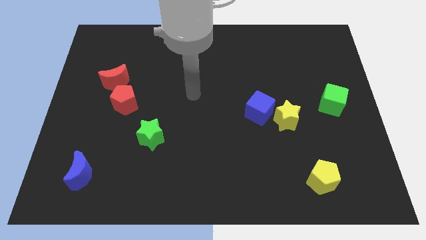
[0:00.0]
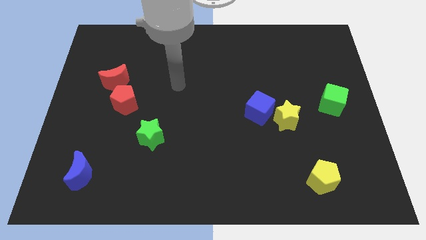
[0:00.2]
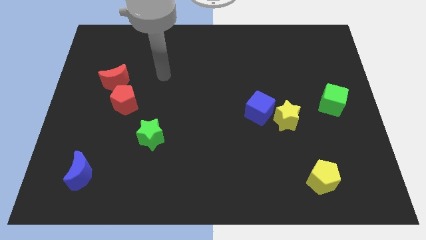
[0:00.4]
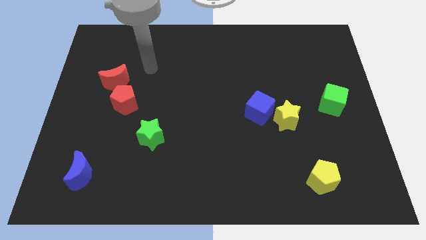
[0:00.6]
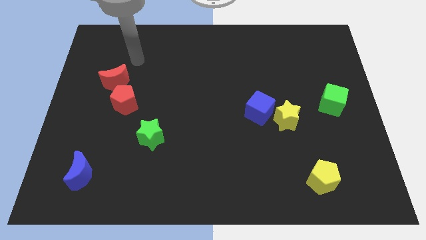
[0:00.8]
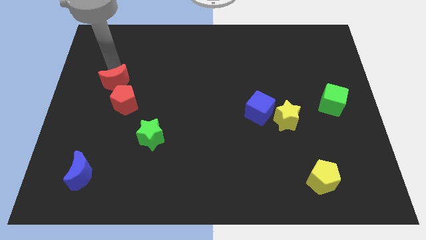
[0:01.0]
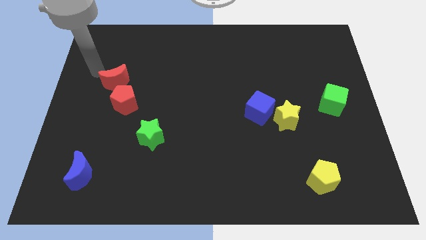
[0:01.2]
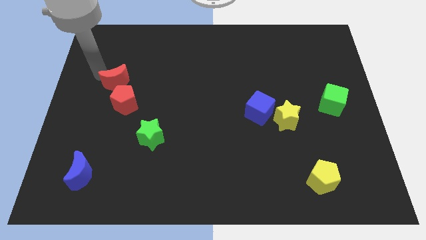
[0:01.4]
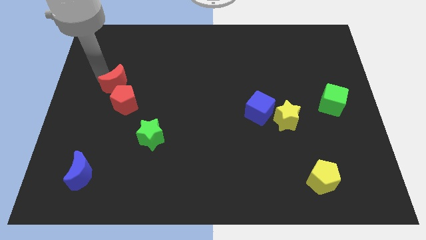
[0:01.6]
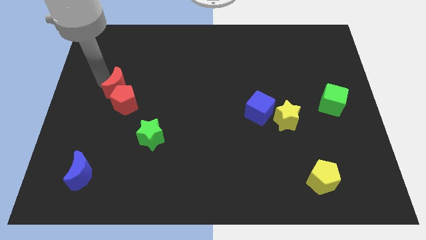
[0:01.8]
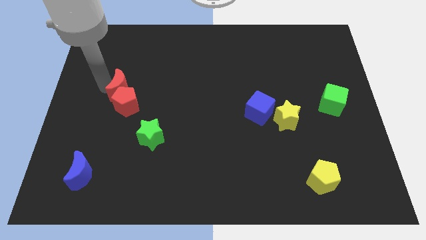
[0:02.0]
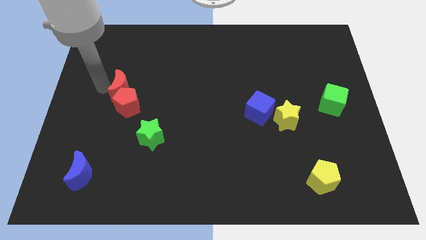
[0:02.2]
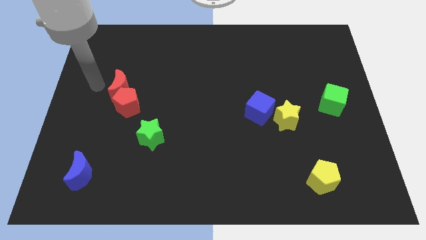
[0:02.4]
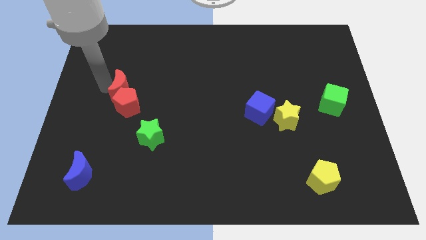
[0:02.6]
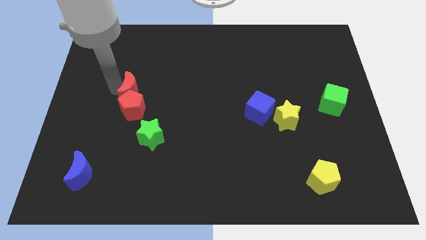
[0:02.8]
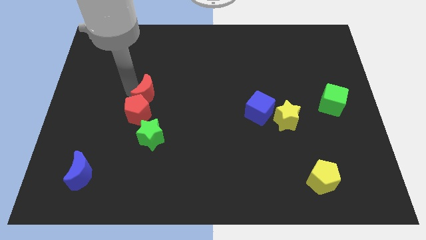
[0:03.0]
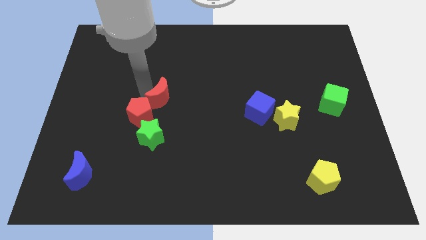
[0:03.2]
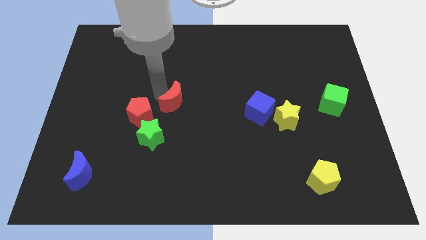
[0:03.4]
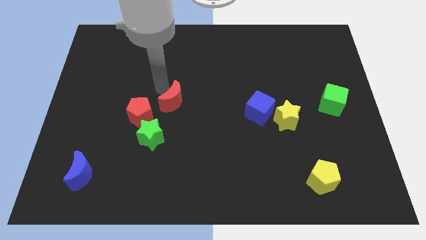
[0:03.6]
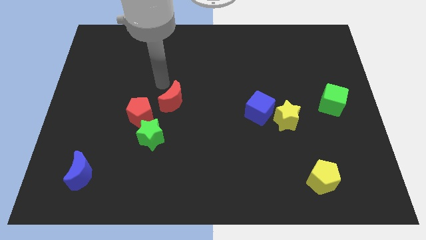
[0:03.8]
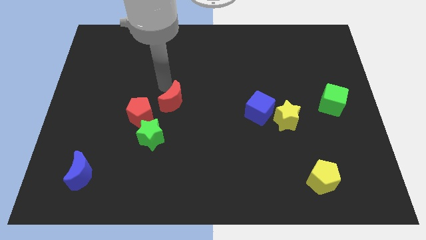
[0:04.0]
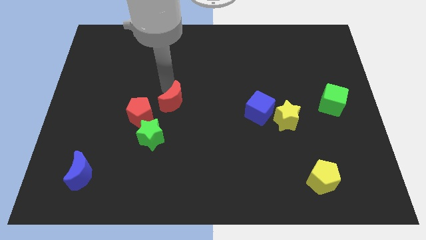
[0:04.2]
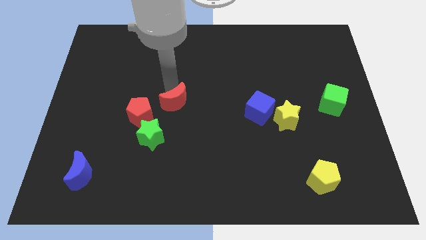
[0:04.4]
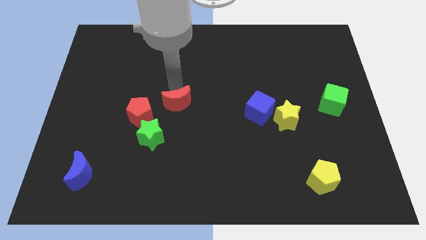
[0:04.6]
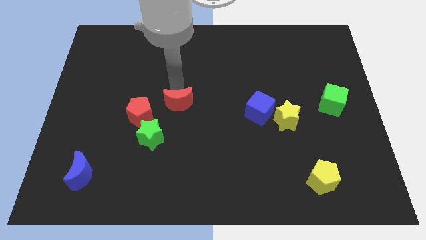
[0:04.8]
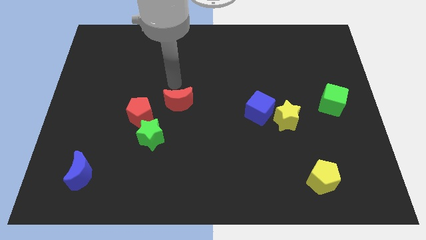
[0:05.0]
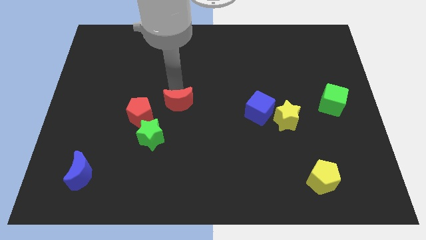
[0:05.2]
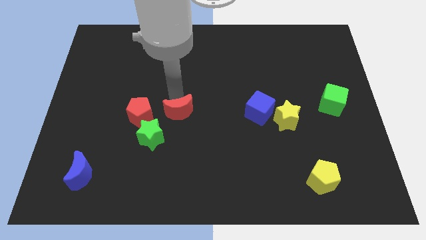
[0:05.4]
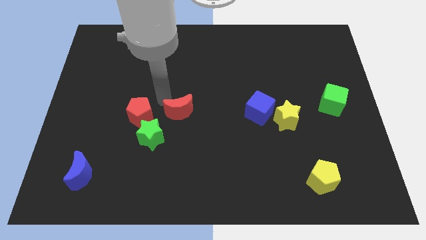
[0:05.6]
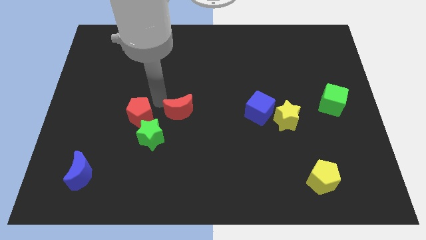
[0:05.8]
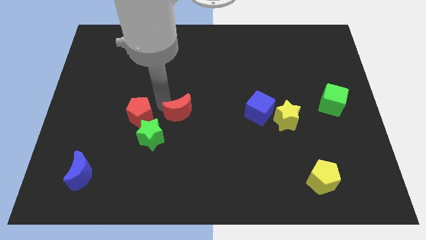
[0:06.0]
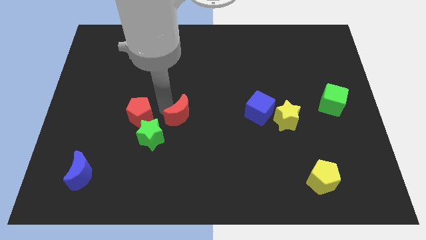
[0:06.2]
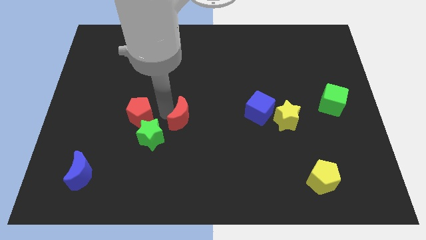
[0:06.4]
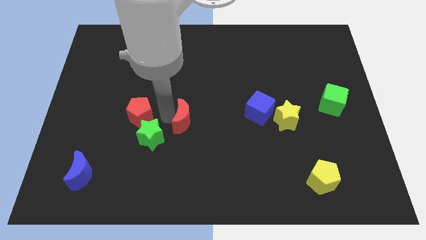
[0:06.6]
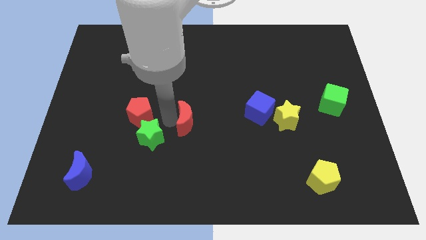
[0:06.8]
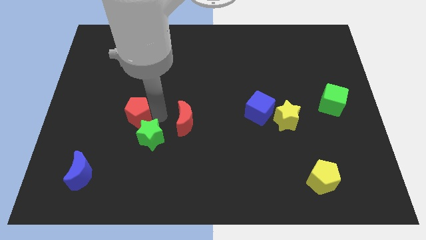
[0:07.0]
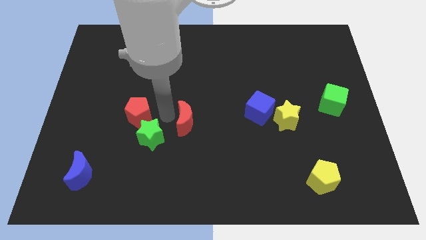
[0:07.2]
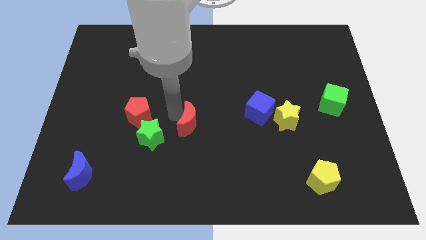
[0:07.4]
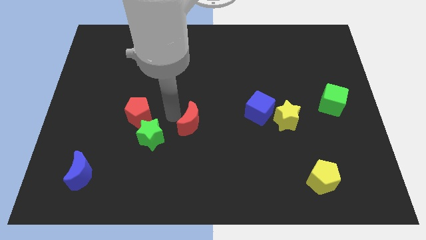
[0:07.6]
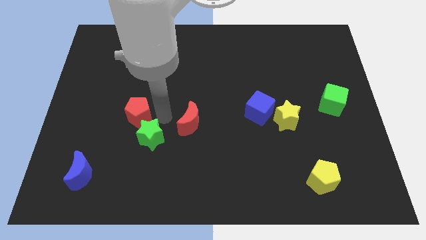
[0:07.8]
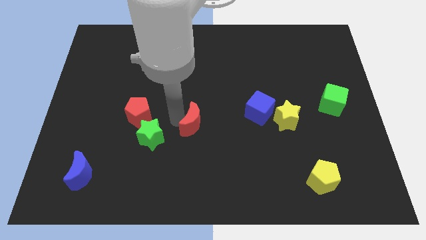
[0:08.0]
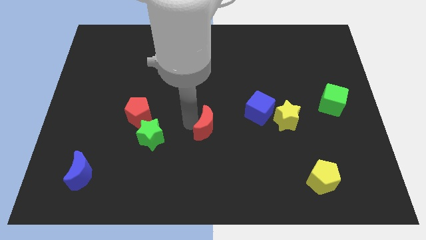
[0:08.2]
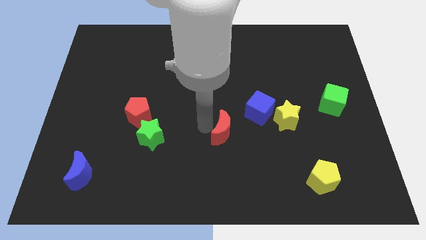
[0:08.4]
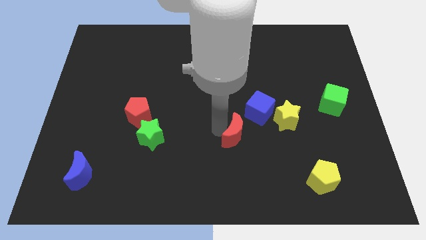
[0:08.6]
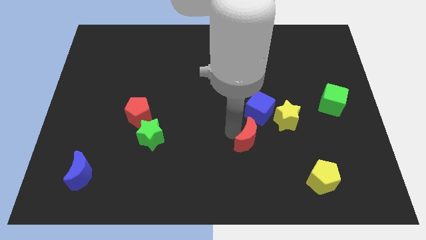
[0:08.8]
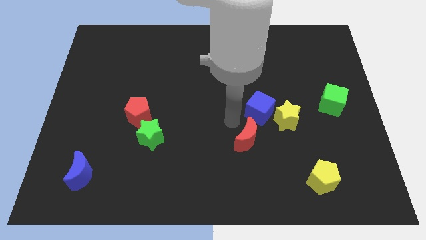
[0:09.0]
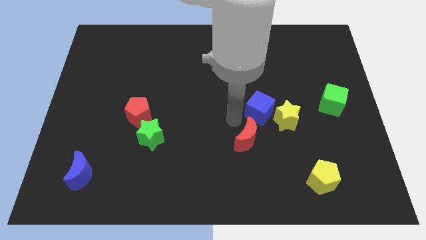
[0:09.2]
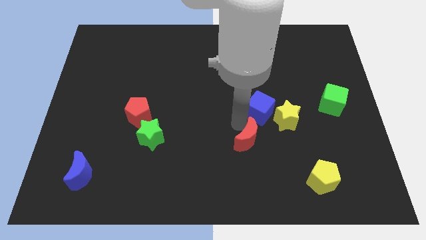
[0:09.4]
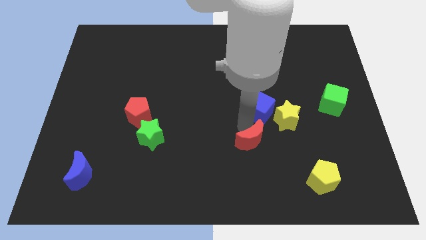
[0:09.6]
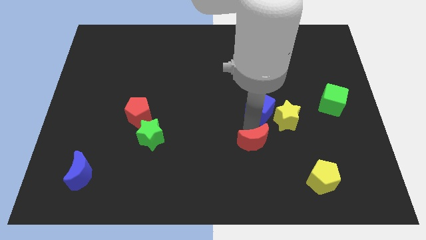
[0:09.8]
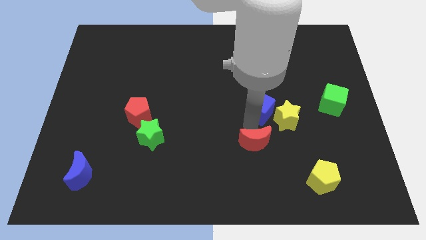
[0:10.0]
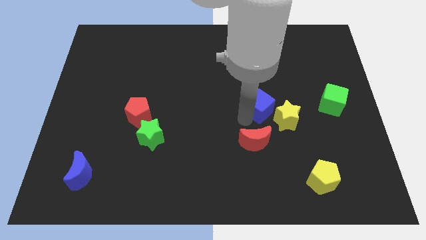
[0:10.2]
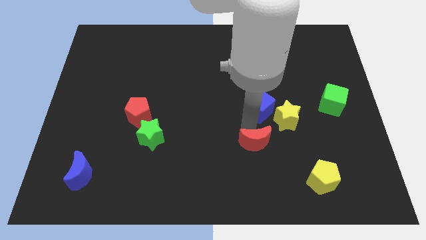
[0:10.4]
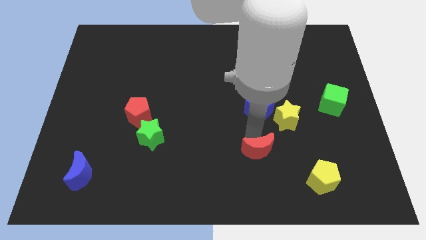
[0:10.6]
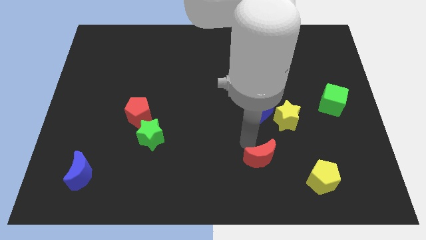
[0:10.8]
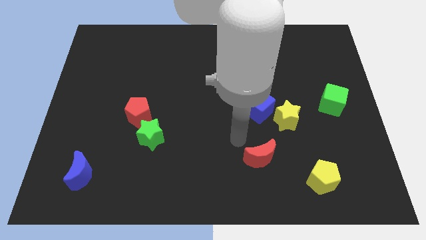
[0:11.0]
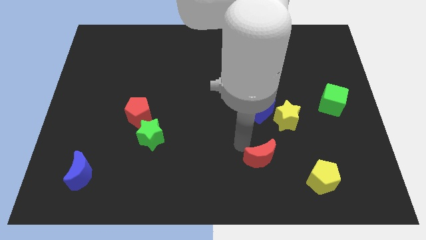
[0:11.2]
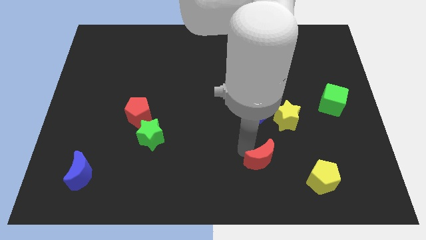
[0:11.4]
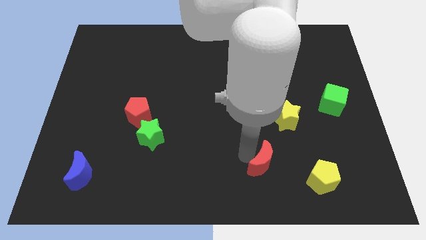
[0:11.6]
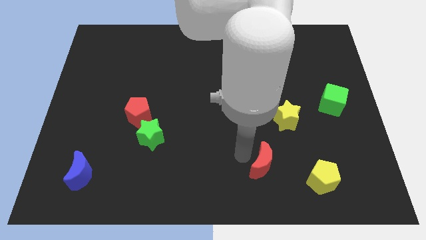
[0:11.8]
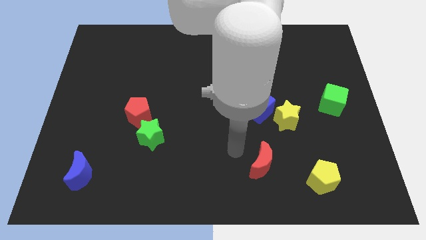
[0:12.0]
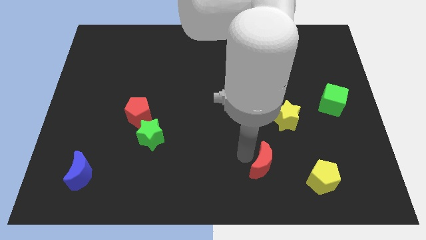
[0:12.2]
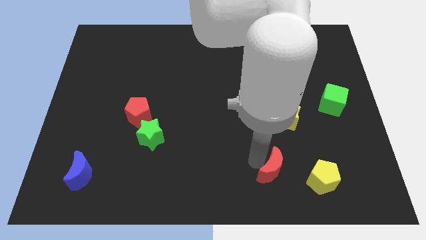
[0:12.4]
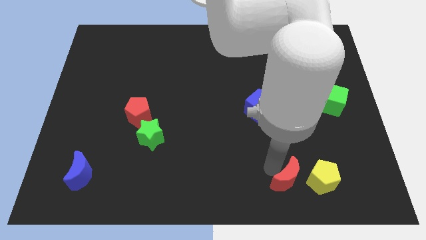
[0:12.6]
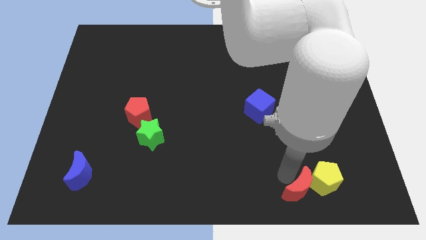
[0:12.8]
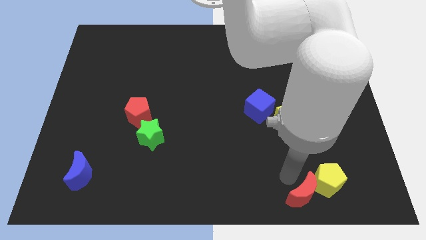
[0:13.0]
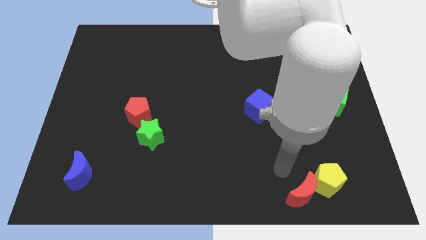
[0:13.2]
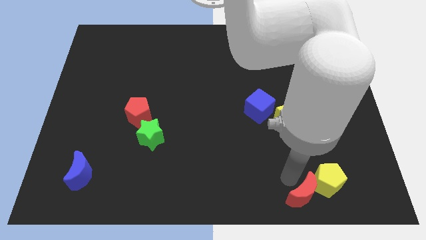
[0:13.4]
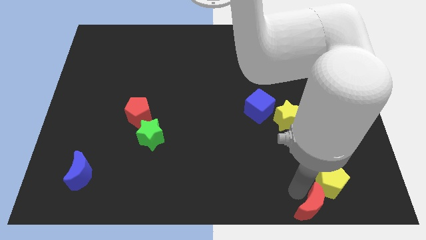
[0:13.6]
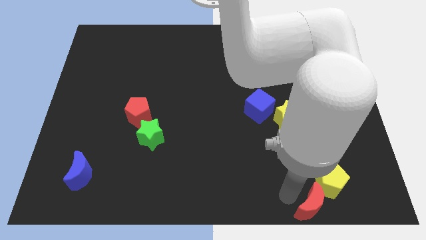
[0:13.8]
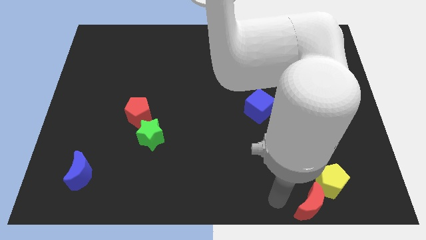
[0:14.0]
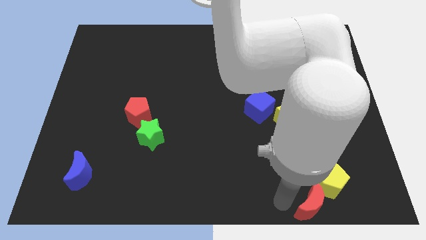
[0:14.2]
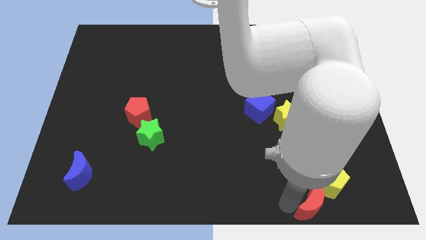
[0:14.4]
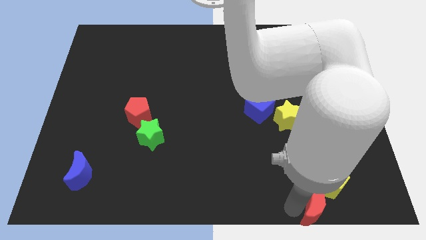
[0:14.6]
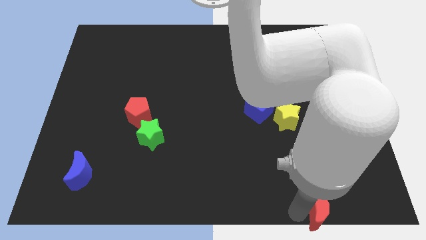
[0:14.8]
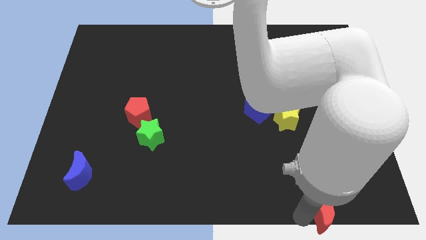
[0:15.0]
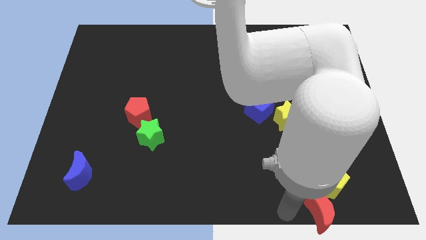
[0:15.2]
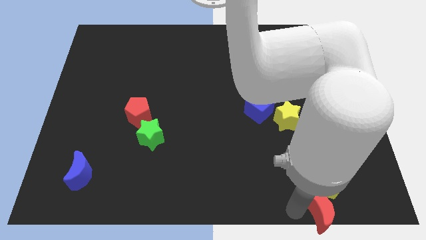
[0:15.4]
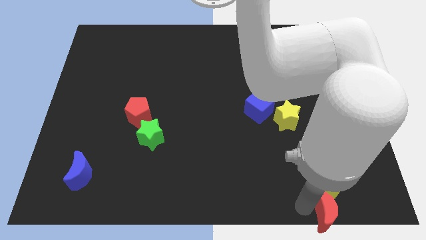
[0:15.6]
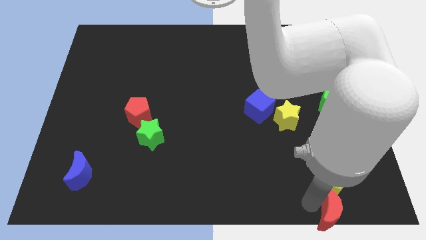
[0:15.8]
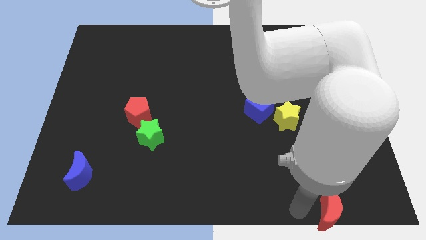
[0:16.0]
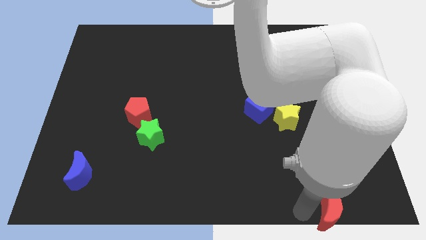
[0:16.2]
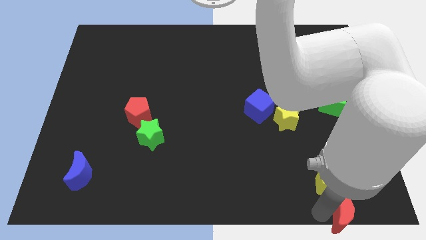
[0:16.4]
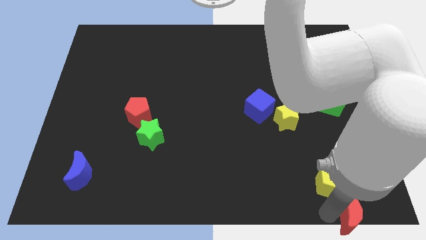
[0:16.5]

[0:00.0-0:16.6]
slide the red moon to the bottom right of the board
